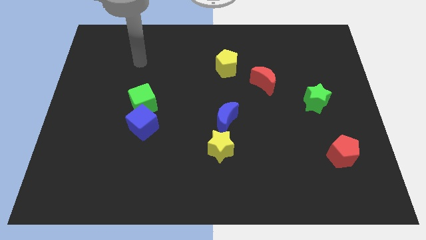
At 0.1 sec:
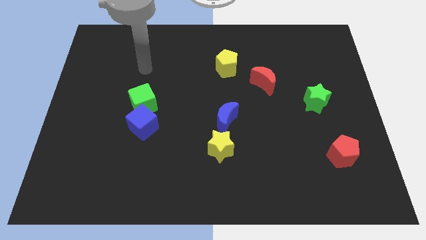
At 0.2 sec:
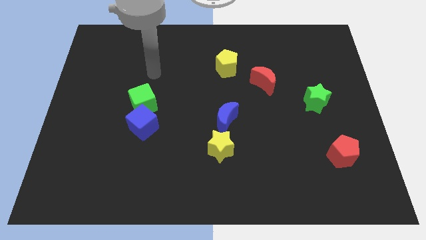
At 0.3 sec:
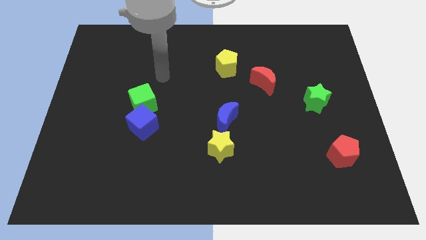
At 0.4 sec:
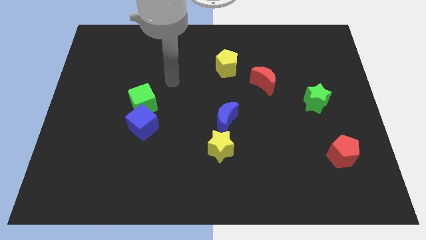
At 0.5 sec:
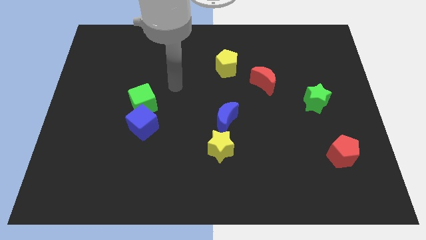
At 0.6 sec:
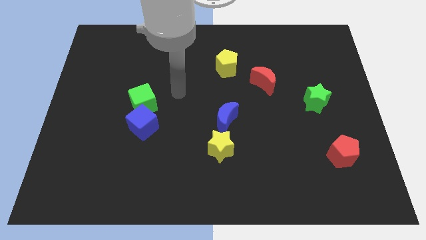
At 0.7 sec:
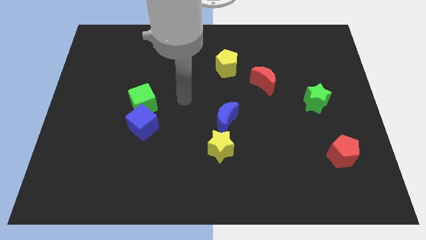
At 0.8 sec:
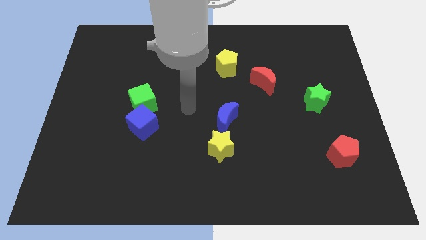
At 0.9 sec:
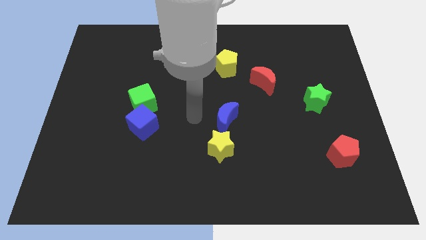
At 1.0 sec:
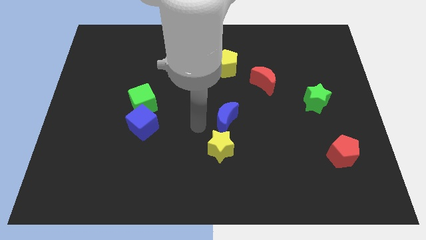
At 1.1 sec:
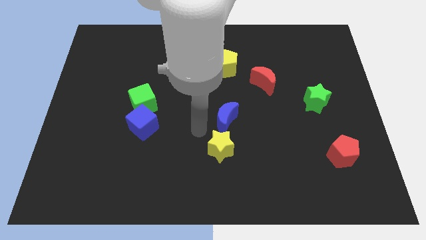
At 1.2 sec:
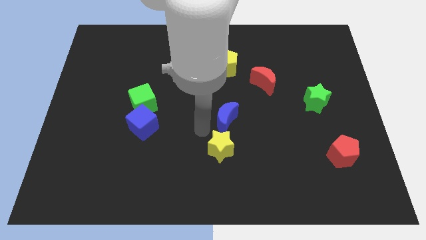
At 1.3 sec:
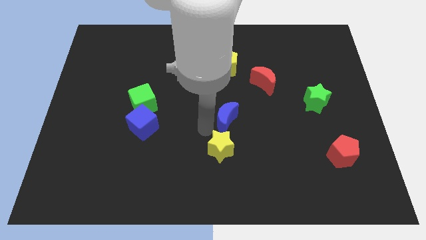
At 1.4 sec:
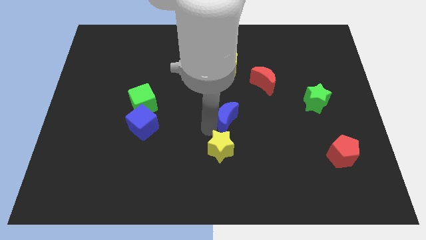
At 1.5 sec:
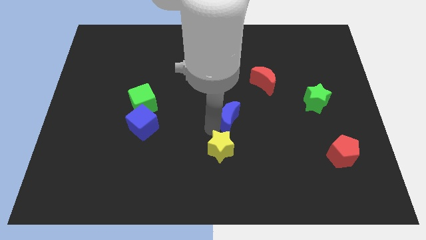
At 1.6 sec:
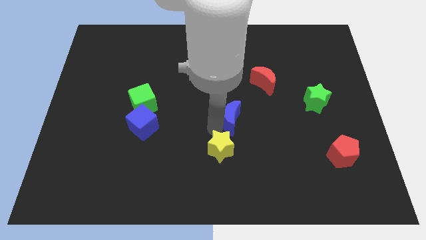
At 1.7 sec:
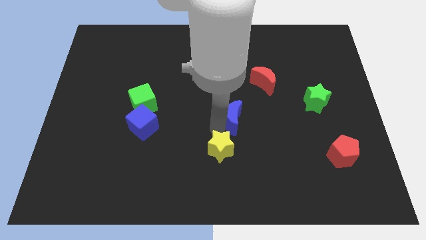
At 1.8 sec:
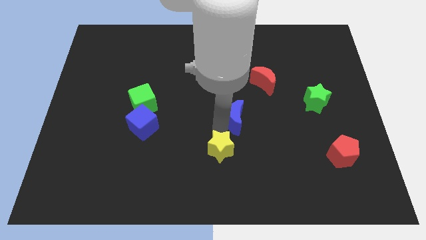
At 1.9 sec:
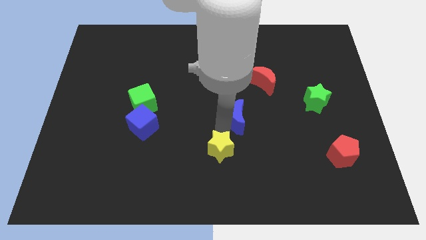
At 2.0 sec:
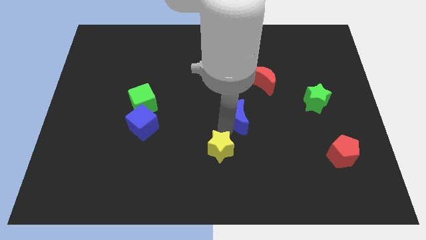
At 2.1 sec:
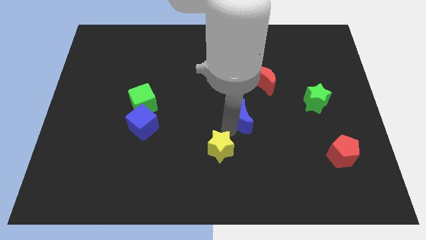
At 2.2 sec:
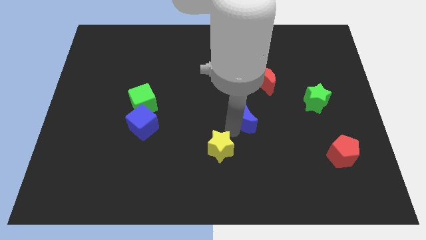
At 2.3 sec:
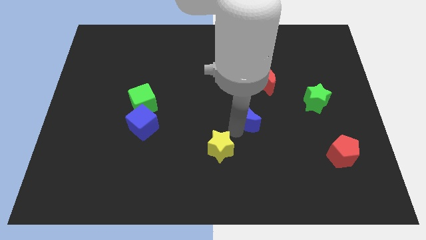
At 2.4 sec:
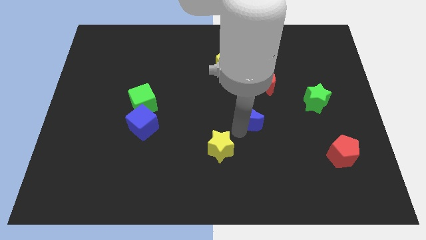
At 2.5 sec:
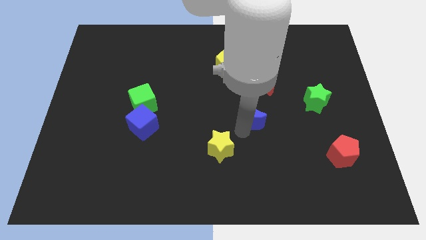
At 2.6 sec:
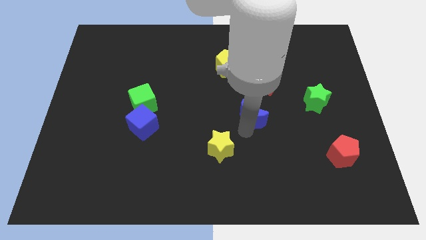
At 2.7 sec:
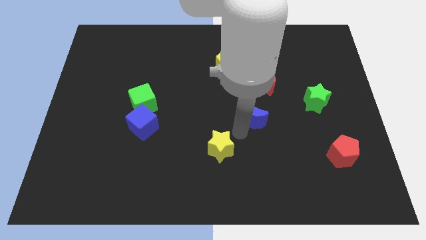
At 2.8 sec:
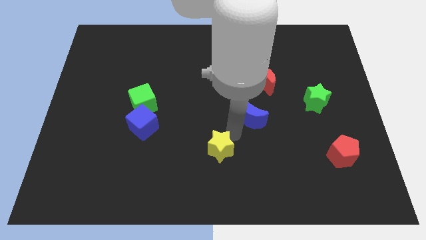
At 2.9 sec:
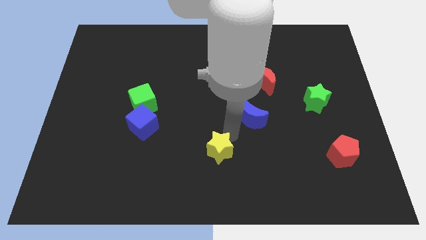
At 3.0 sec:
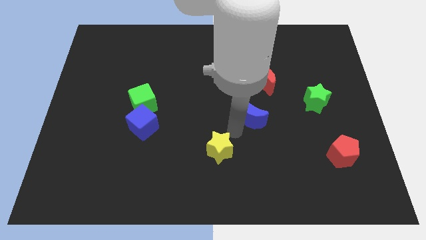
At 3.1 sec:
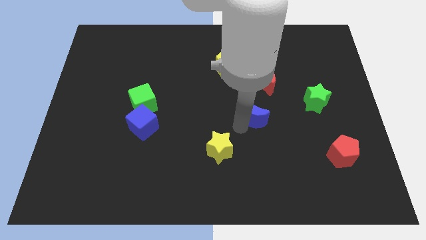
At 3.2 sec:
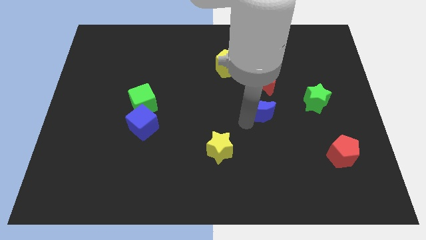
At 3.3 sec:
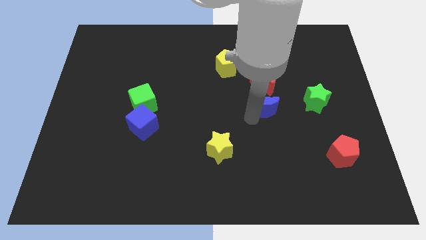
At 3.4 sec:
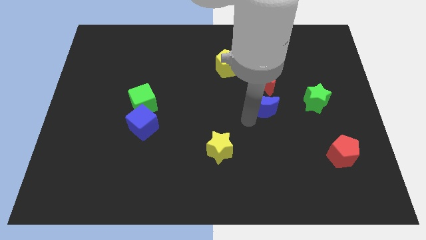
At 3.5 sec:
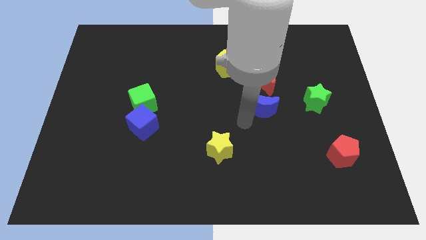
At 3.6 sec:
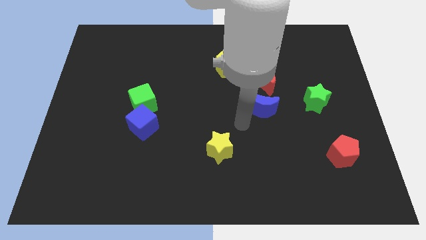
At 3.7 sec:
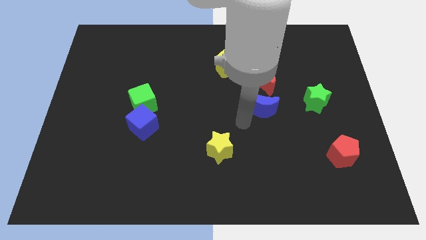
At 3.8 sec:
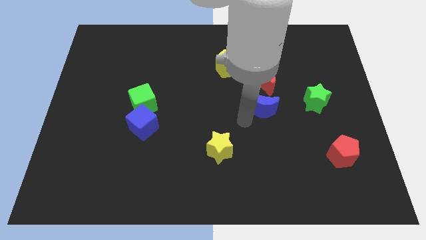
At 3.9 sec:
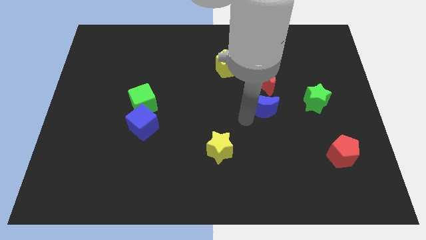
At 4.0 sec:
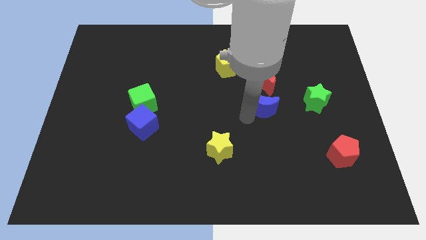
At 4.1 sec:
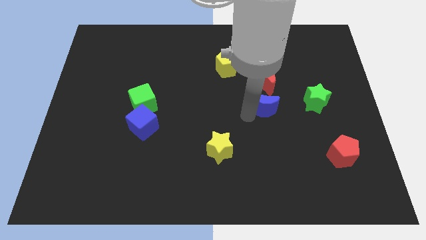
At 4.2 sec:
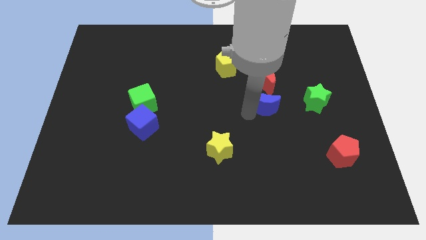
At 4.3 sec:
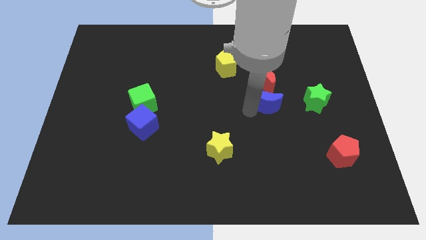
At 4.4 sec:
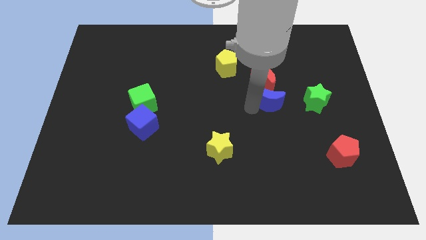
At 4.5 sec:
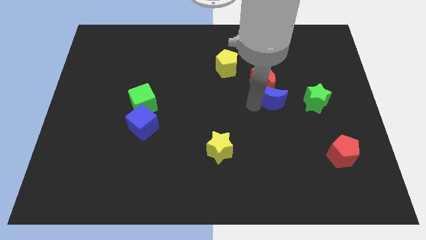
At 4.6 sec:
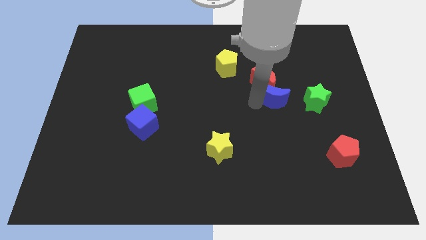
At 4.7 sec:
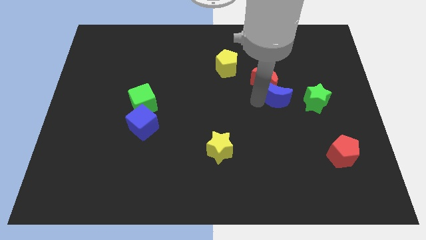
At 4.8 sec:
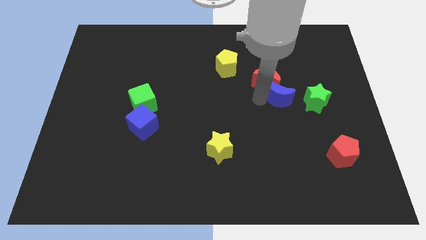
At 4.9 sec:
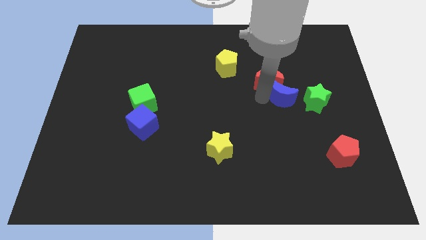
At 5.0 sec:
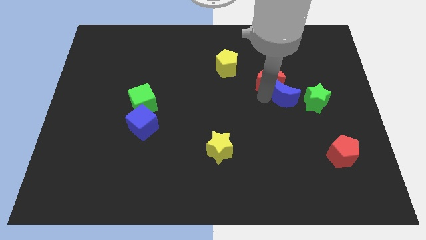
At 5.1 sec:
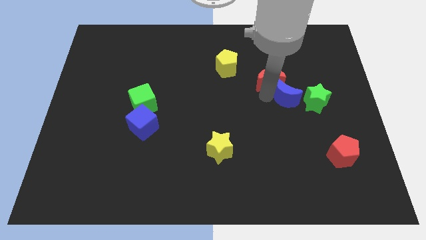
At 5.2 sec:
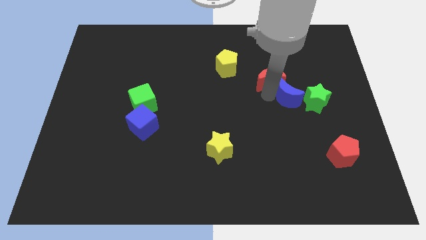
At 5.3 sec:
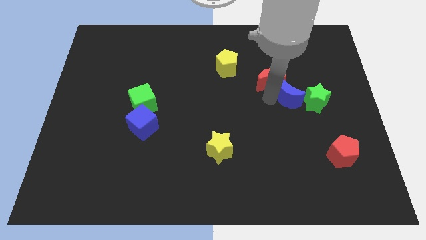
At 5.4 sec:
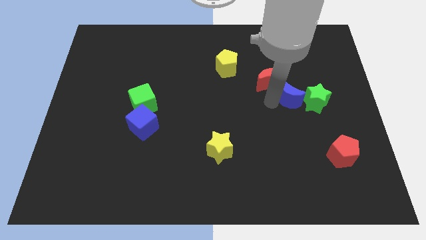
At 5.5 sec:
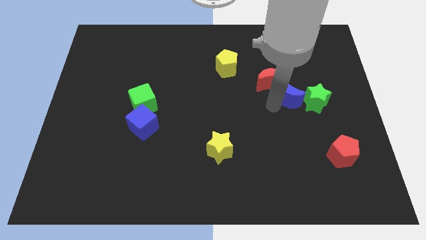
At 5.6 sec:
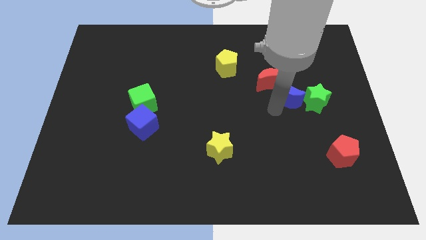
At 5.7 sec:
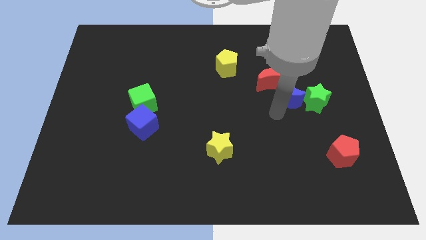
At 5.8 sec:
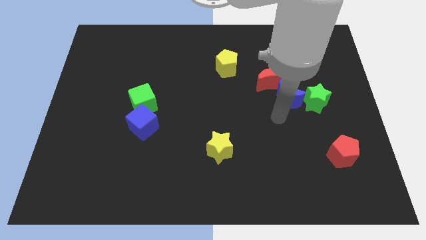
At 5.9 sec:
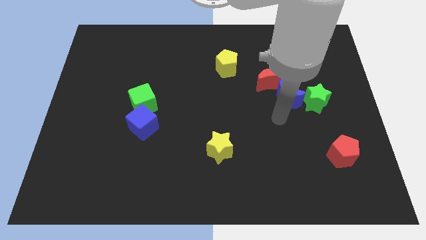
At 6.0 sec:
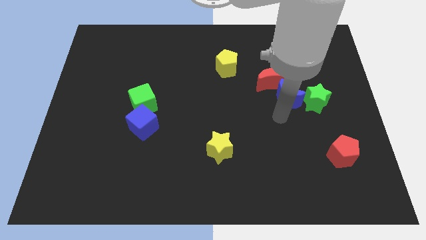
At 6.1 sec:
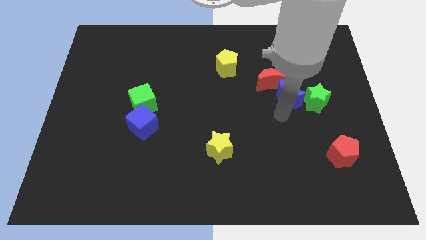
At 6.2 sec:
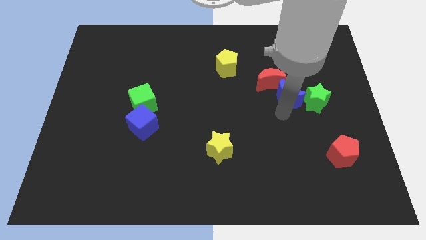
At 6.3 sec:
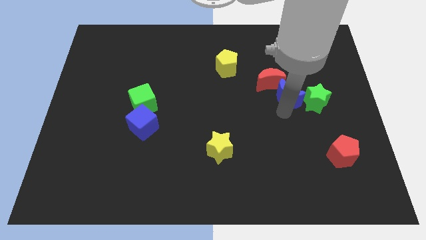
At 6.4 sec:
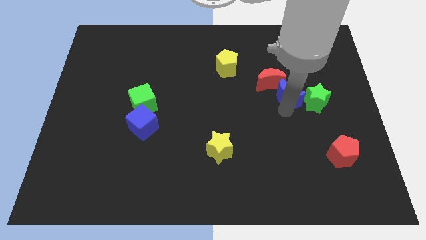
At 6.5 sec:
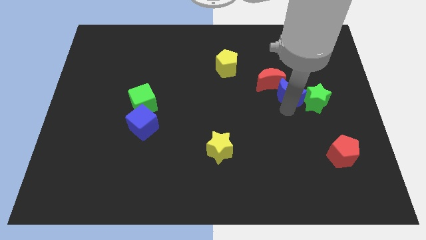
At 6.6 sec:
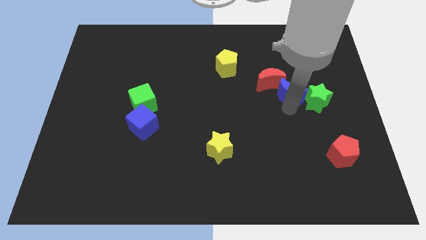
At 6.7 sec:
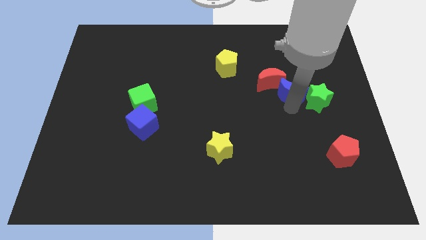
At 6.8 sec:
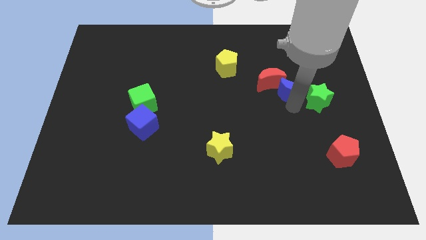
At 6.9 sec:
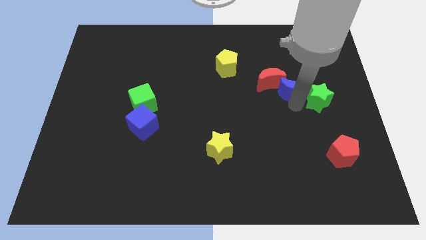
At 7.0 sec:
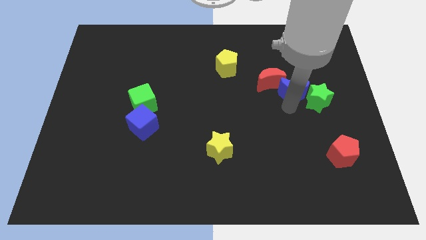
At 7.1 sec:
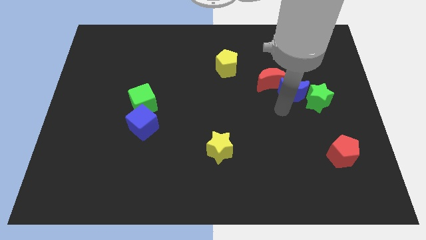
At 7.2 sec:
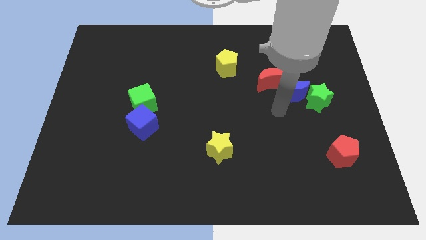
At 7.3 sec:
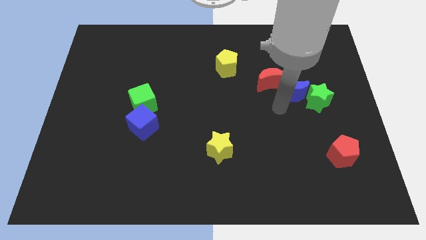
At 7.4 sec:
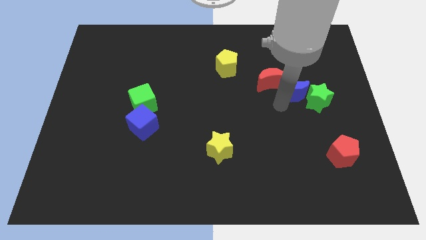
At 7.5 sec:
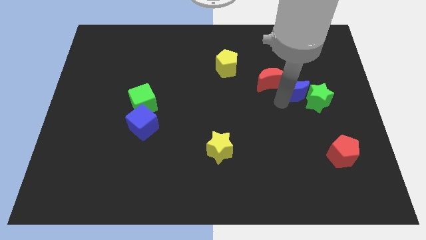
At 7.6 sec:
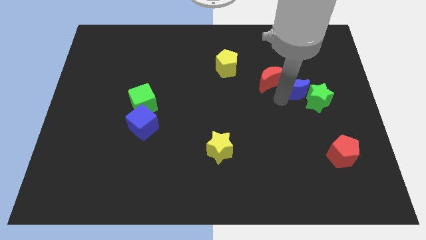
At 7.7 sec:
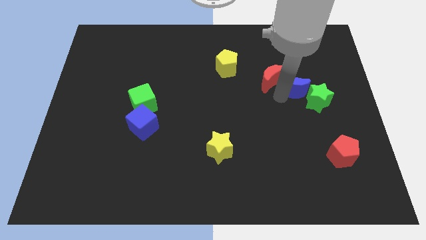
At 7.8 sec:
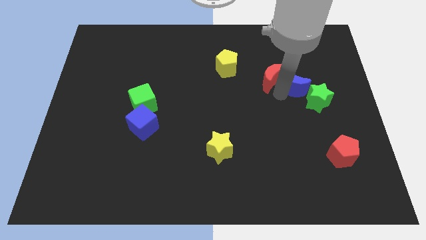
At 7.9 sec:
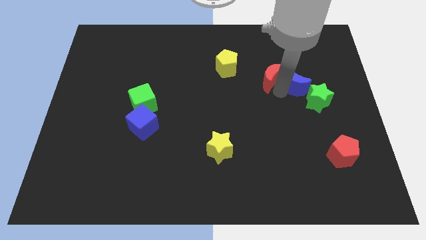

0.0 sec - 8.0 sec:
move the blue moon above the green star
